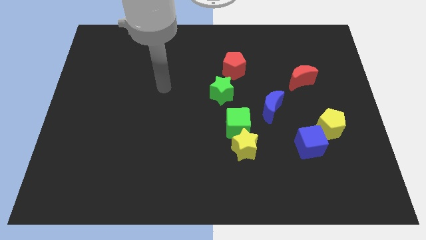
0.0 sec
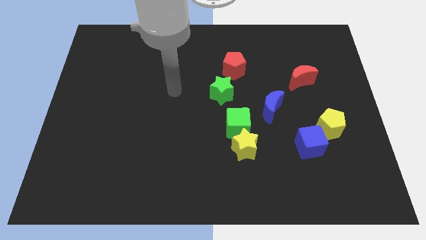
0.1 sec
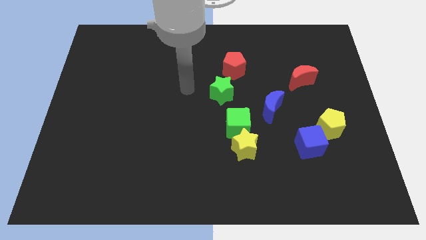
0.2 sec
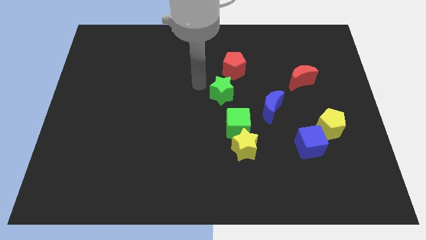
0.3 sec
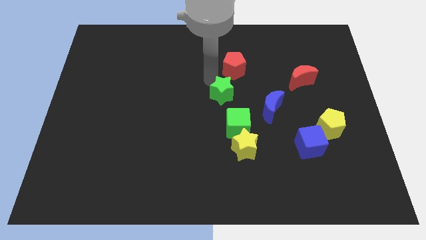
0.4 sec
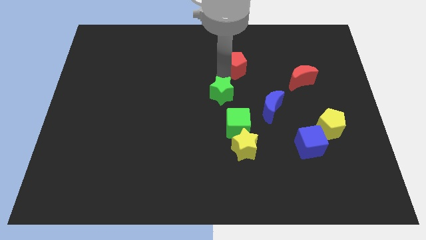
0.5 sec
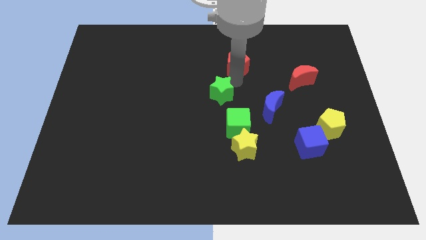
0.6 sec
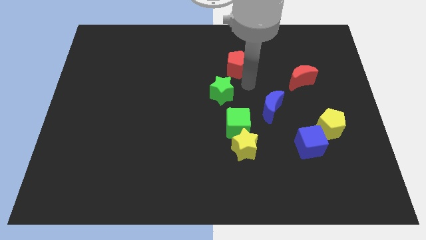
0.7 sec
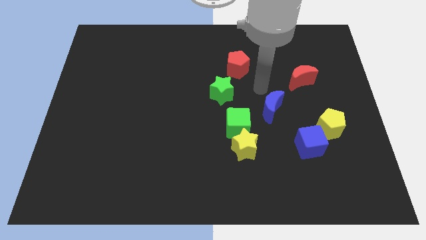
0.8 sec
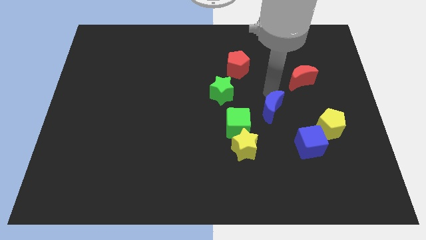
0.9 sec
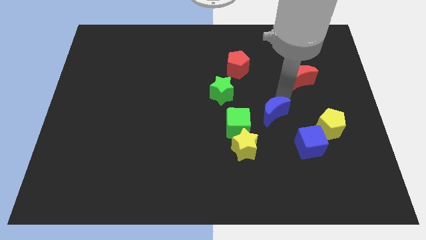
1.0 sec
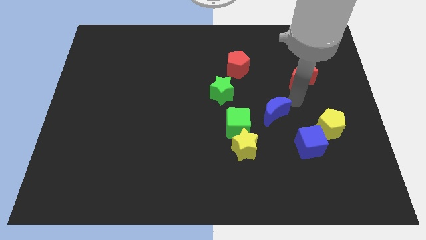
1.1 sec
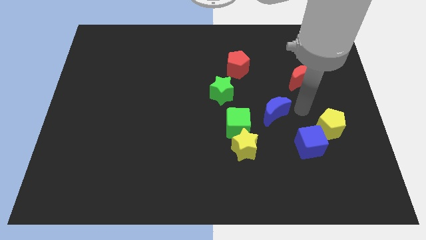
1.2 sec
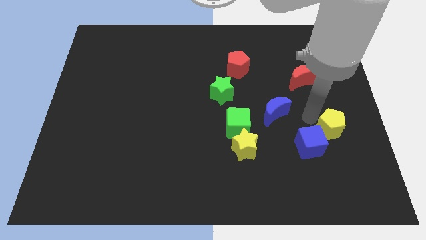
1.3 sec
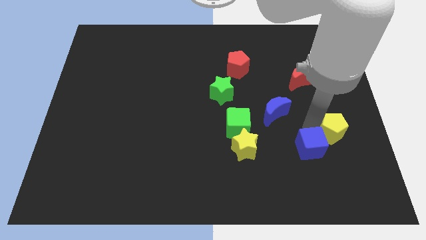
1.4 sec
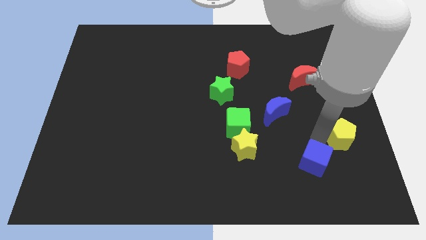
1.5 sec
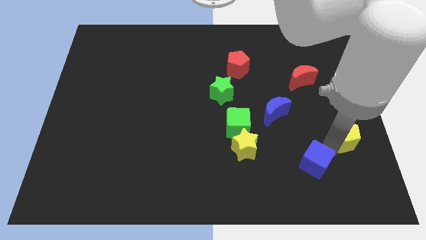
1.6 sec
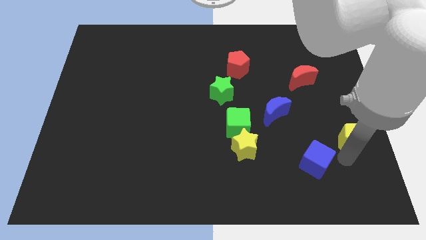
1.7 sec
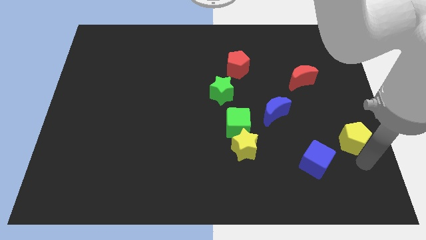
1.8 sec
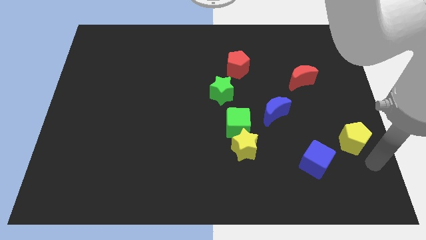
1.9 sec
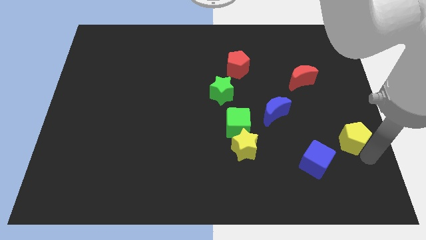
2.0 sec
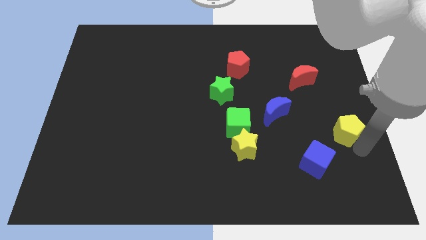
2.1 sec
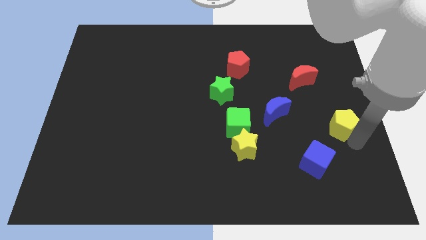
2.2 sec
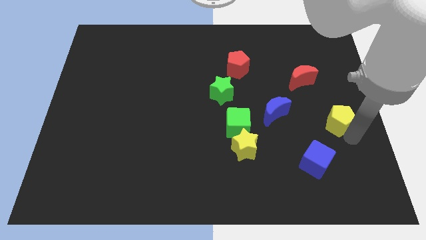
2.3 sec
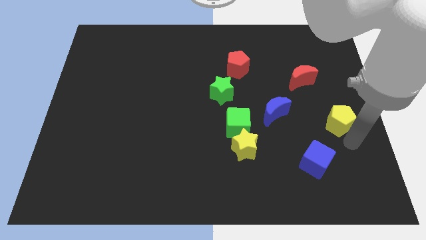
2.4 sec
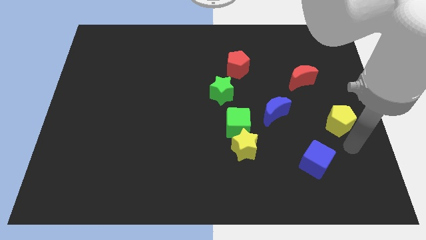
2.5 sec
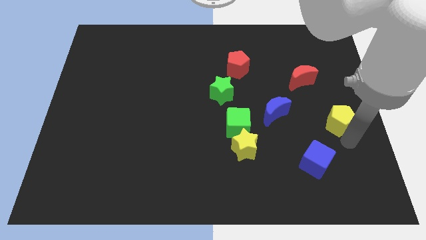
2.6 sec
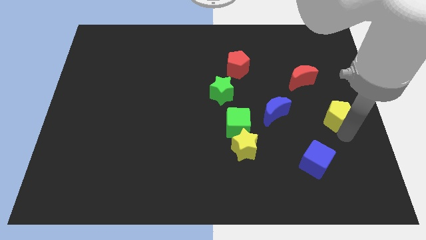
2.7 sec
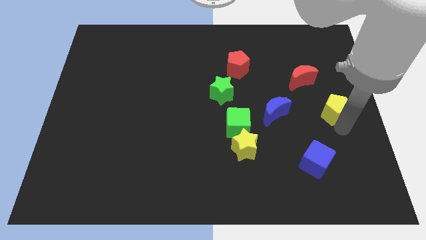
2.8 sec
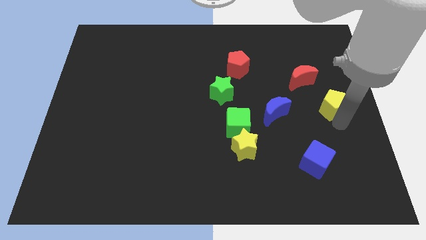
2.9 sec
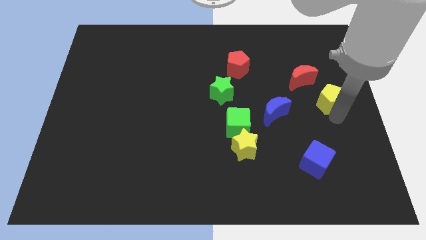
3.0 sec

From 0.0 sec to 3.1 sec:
slightly move the yellow pentagon upwards

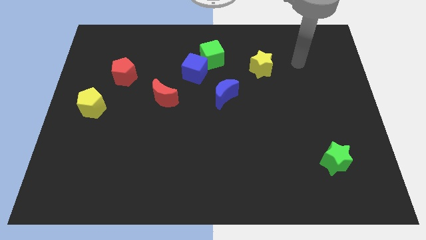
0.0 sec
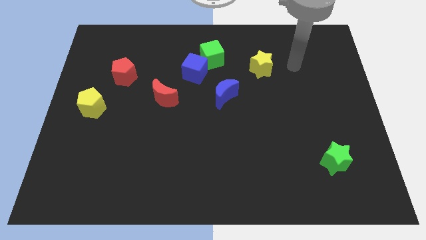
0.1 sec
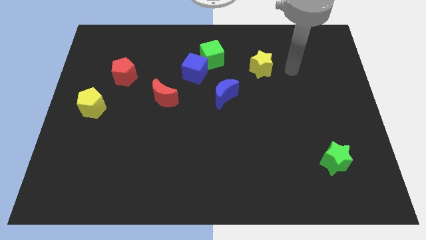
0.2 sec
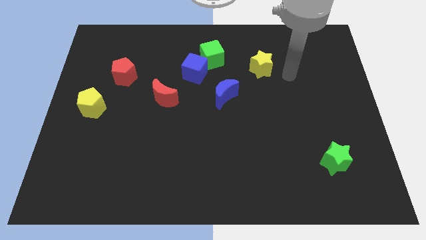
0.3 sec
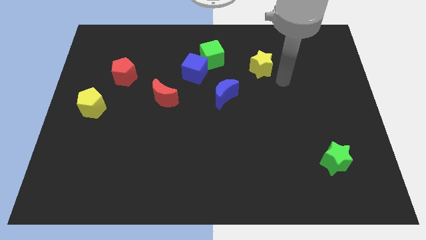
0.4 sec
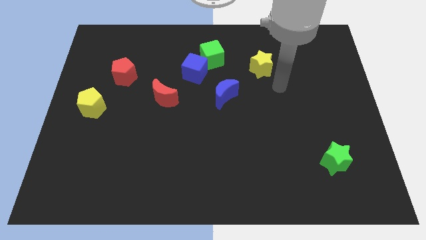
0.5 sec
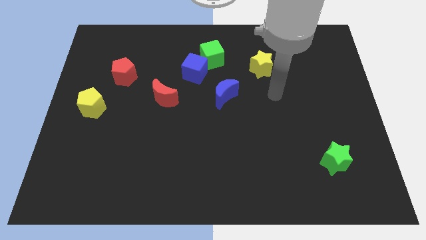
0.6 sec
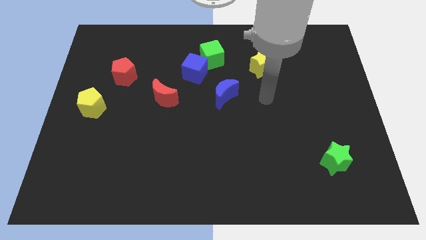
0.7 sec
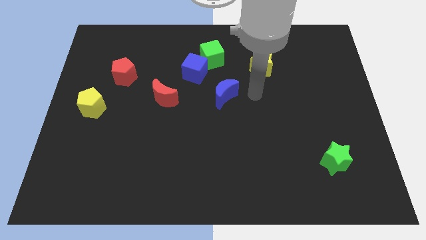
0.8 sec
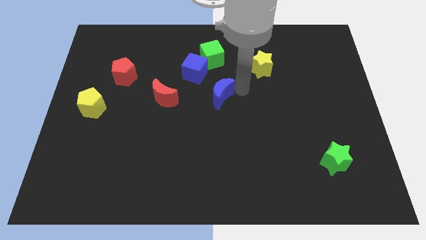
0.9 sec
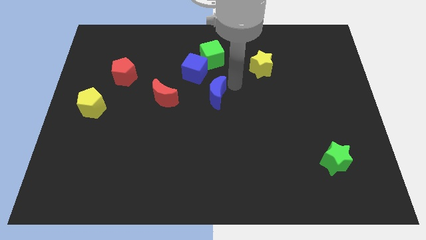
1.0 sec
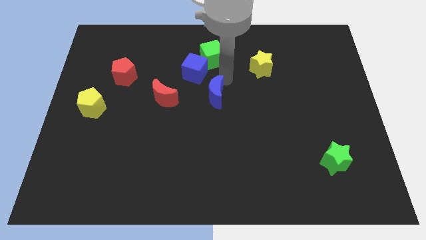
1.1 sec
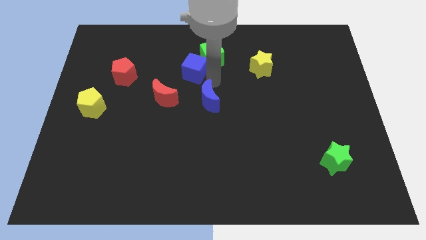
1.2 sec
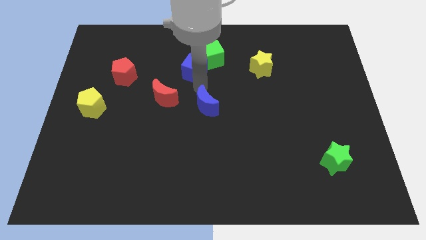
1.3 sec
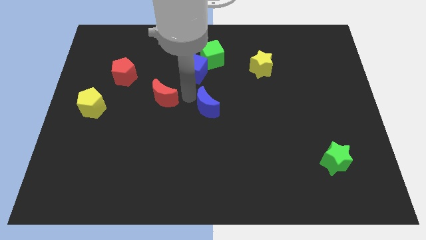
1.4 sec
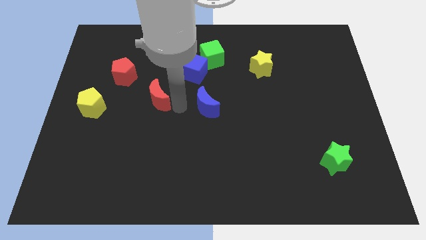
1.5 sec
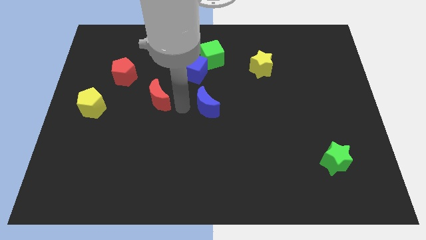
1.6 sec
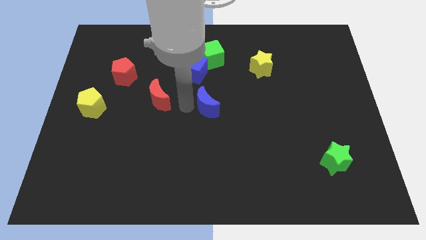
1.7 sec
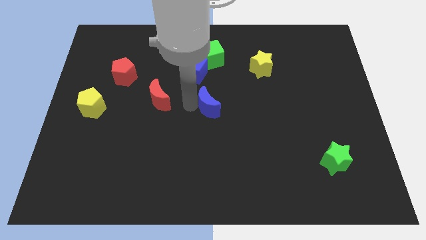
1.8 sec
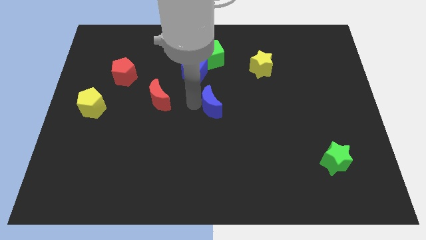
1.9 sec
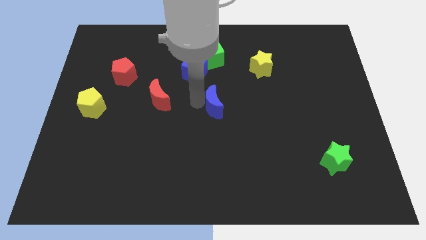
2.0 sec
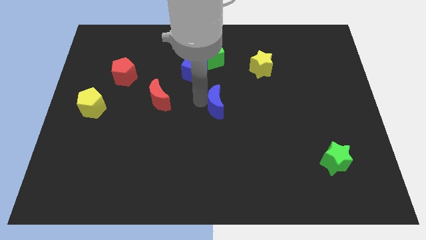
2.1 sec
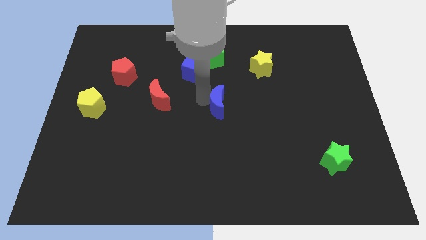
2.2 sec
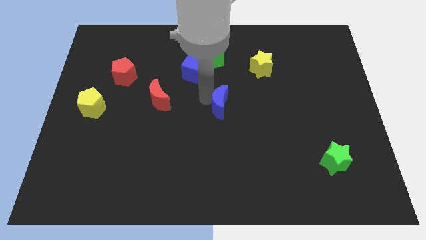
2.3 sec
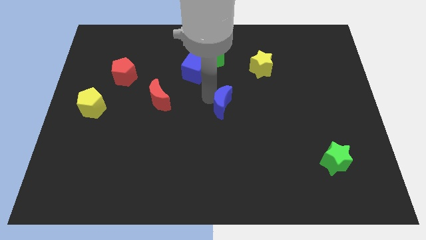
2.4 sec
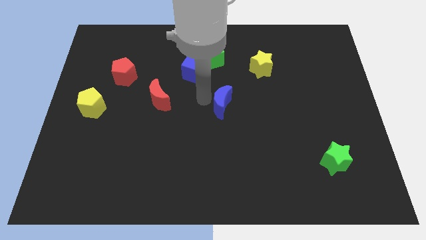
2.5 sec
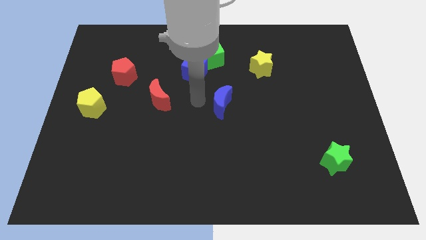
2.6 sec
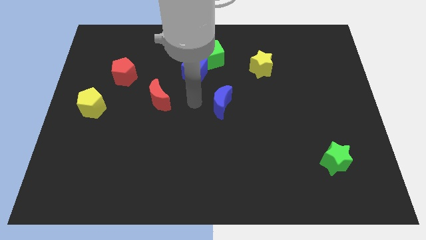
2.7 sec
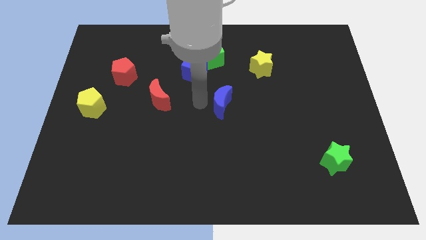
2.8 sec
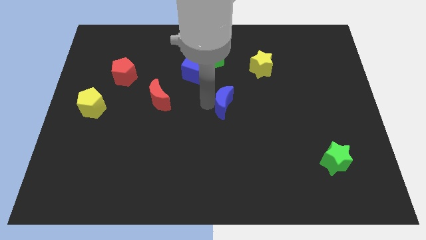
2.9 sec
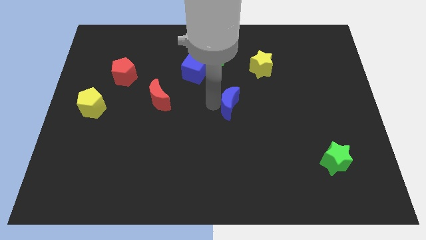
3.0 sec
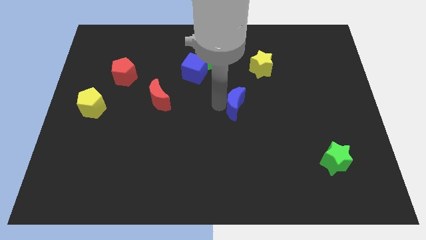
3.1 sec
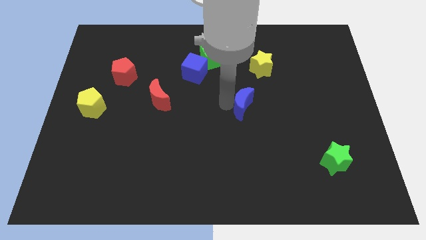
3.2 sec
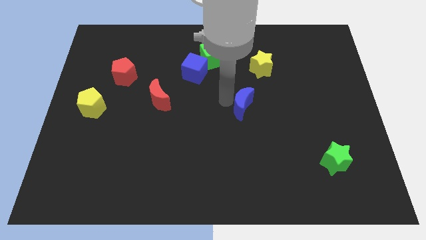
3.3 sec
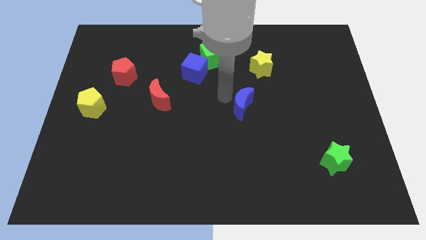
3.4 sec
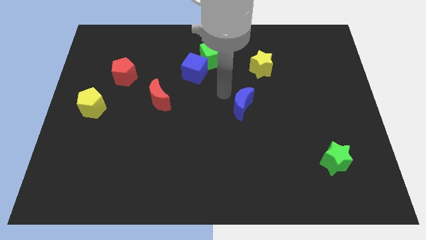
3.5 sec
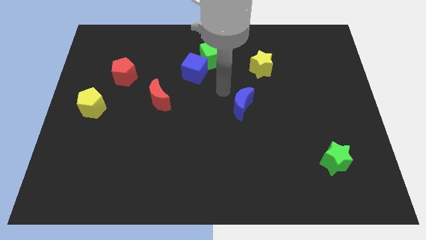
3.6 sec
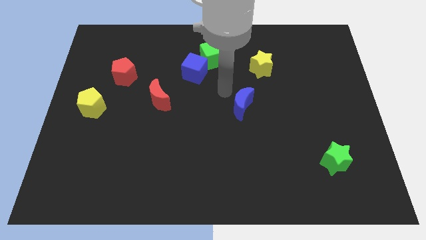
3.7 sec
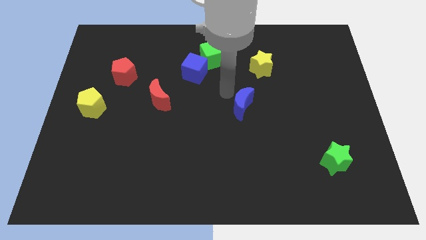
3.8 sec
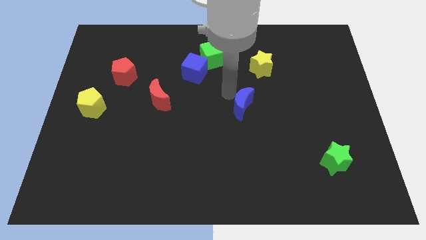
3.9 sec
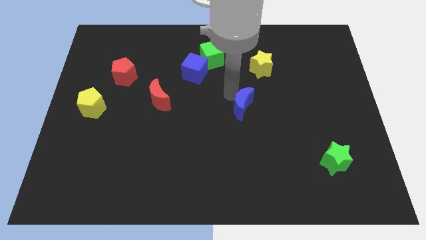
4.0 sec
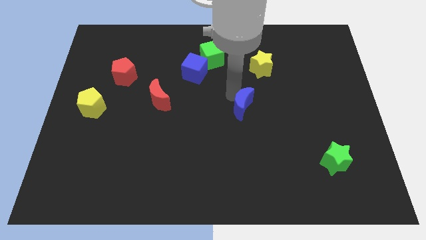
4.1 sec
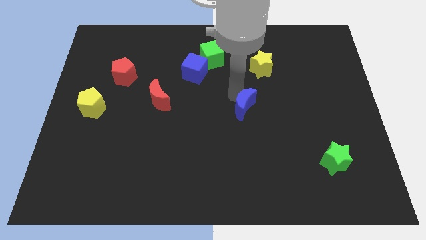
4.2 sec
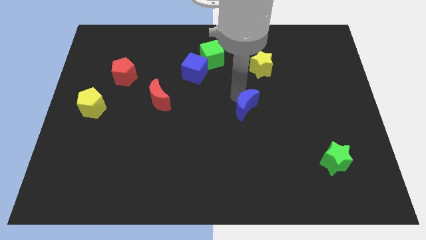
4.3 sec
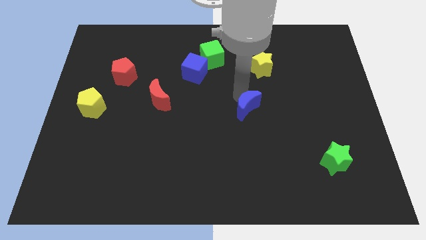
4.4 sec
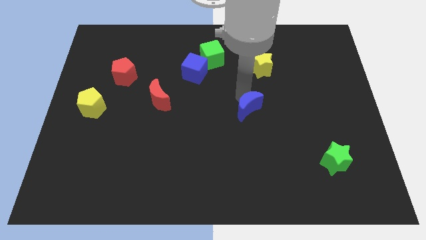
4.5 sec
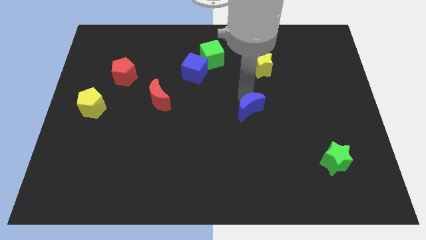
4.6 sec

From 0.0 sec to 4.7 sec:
slightly push the blue moon downwards and to the right diagonally
